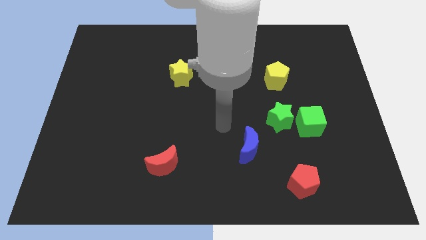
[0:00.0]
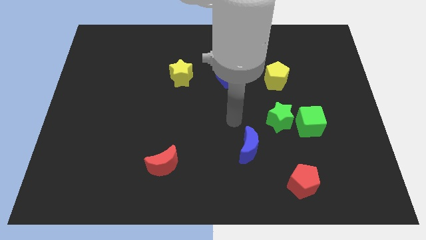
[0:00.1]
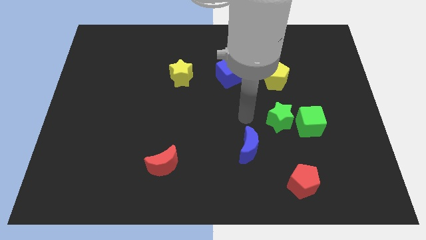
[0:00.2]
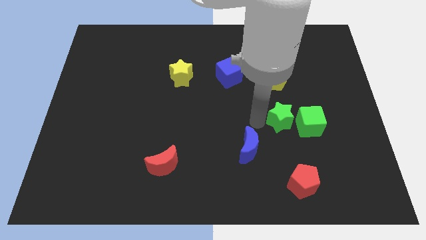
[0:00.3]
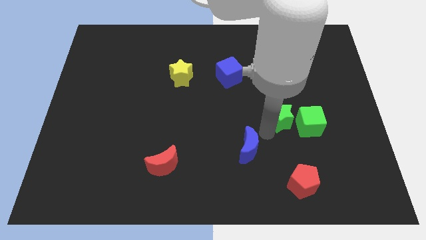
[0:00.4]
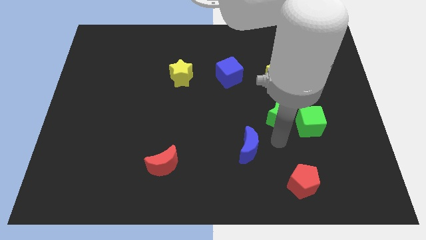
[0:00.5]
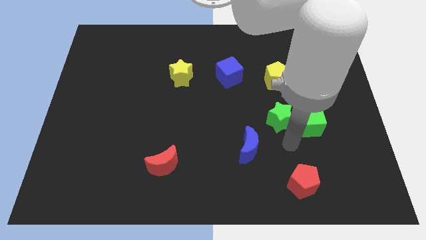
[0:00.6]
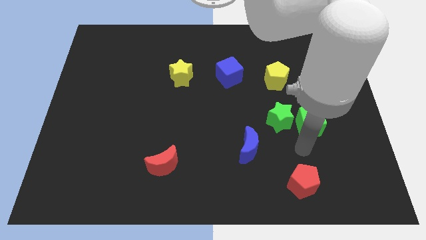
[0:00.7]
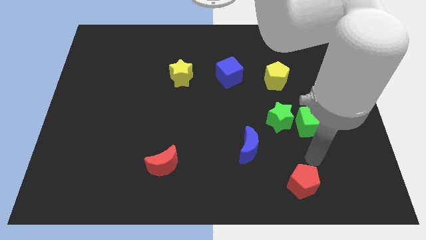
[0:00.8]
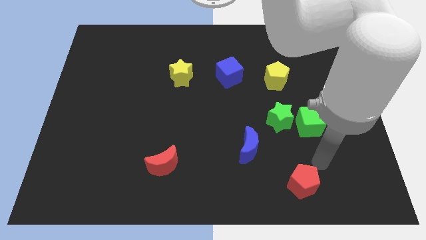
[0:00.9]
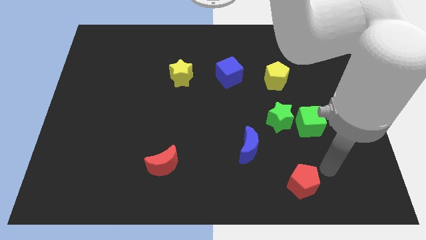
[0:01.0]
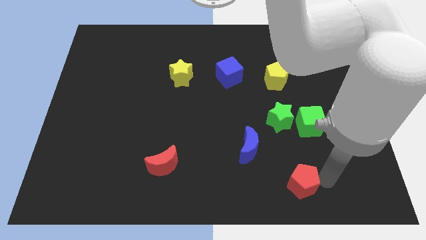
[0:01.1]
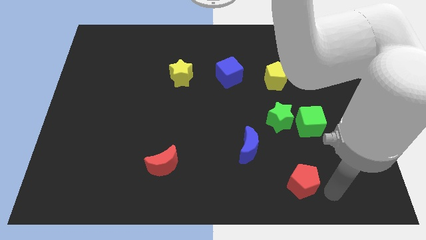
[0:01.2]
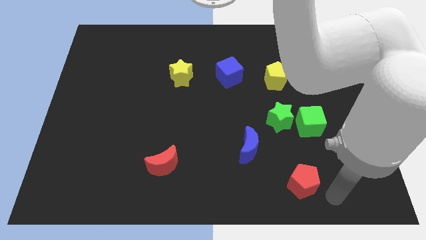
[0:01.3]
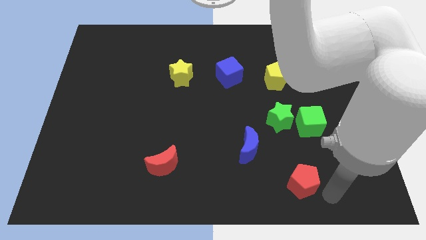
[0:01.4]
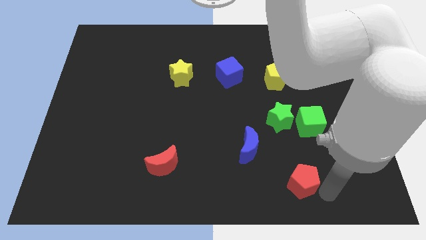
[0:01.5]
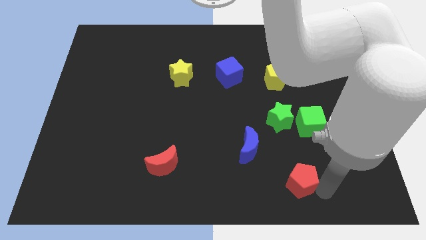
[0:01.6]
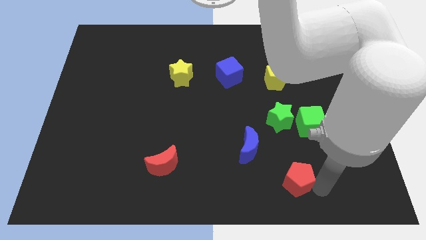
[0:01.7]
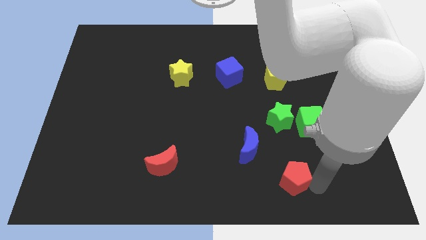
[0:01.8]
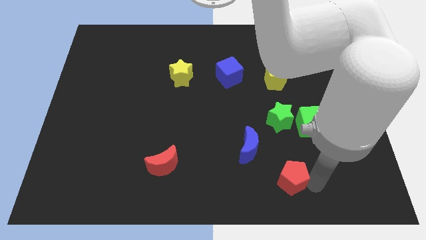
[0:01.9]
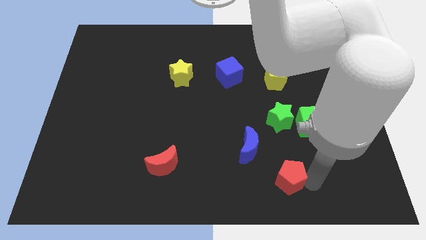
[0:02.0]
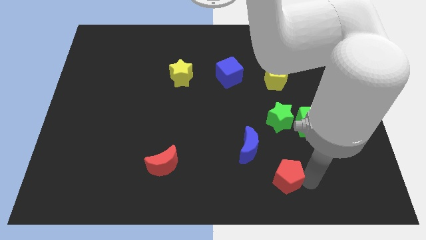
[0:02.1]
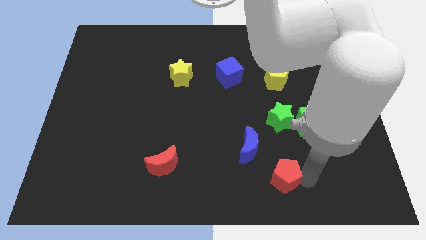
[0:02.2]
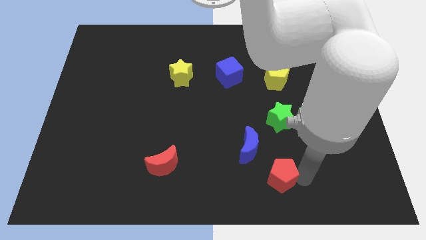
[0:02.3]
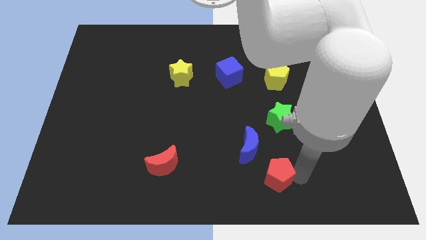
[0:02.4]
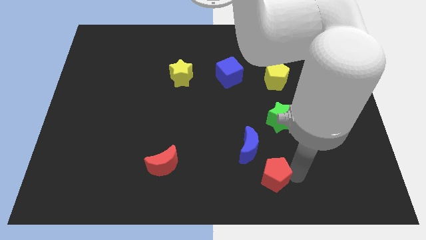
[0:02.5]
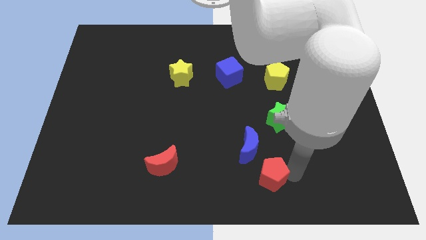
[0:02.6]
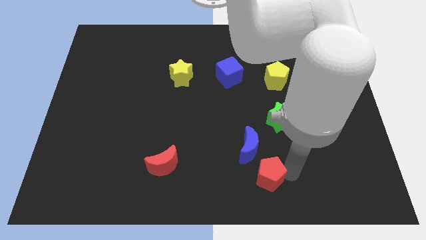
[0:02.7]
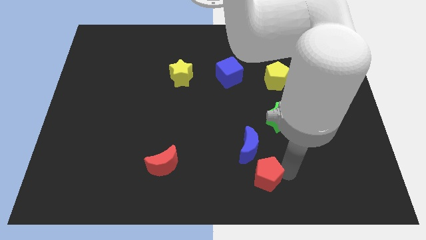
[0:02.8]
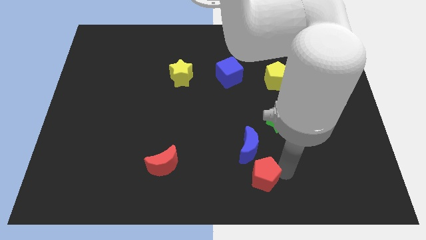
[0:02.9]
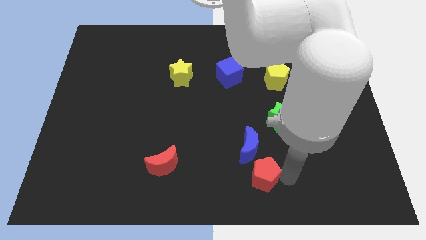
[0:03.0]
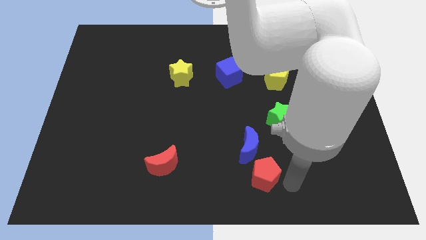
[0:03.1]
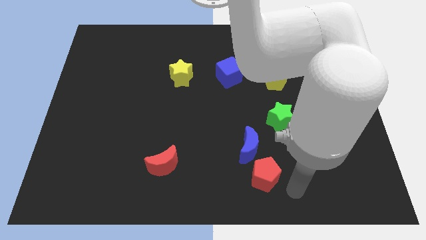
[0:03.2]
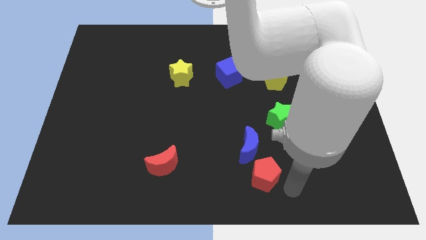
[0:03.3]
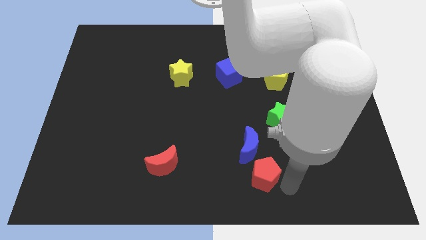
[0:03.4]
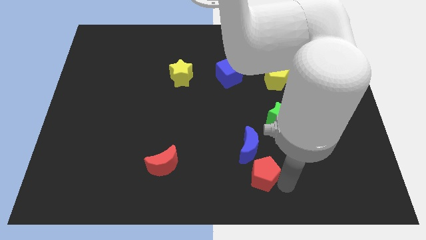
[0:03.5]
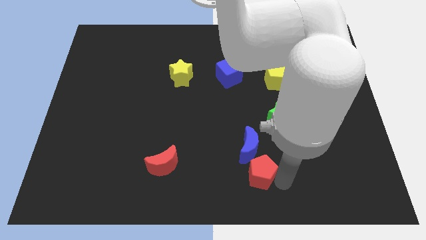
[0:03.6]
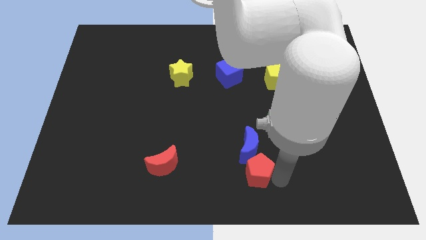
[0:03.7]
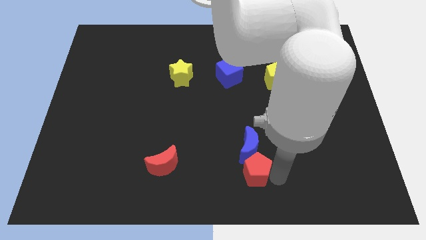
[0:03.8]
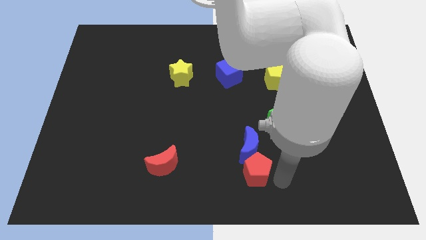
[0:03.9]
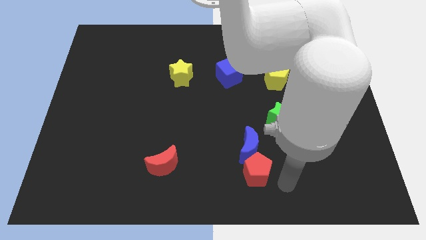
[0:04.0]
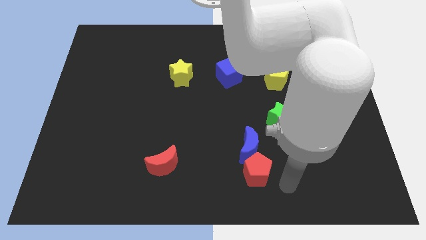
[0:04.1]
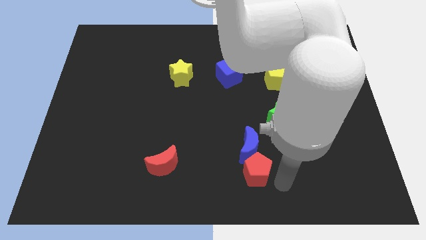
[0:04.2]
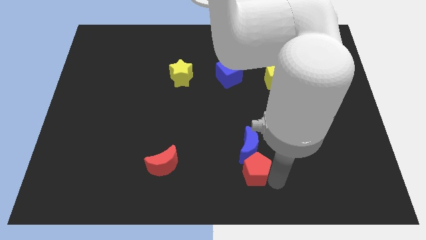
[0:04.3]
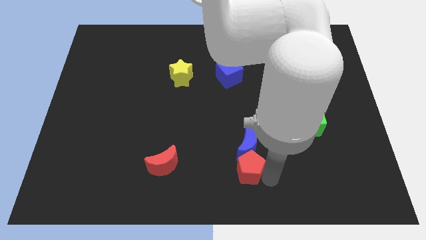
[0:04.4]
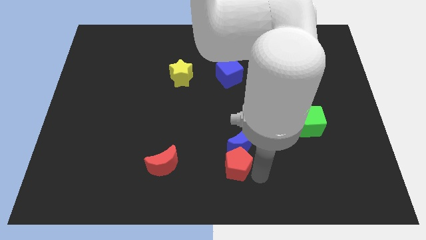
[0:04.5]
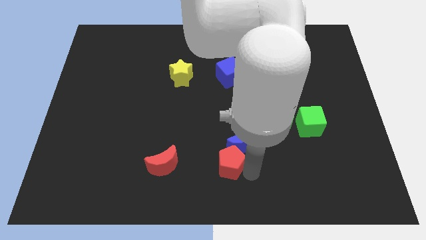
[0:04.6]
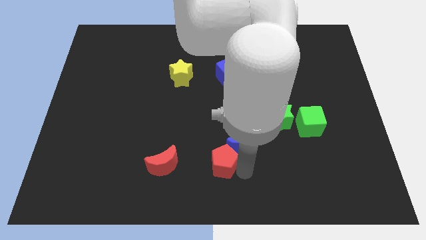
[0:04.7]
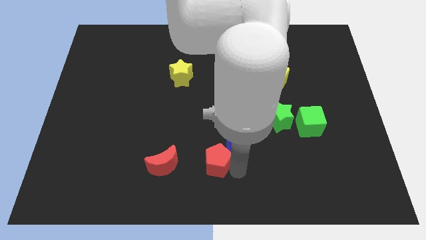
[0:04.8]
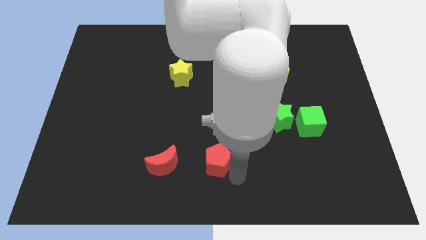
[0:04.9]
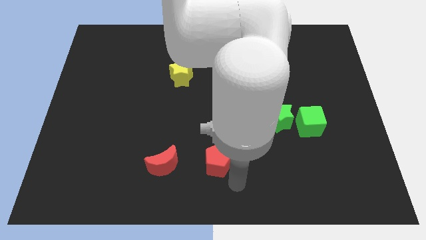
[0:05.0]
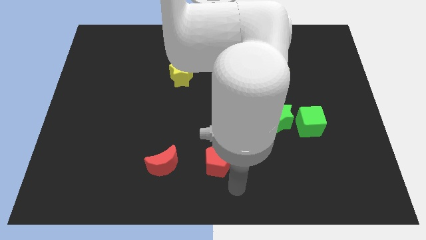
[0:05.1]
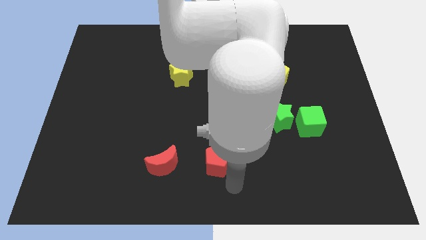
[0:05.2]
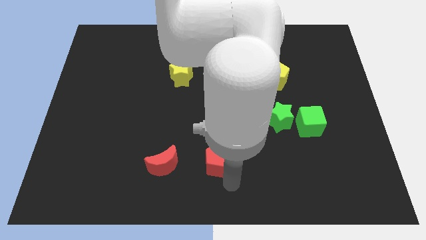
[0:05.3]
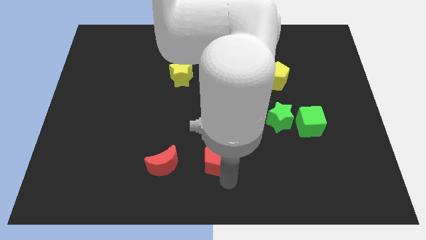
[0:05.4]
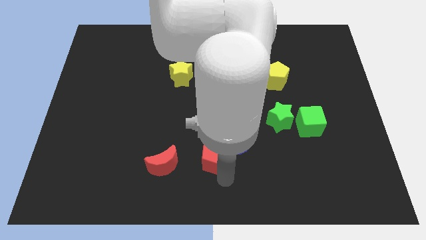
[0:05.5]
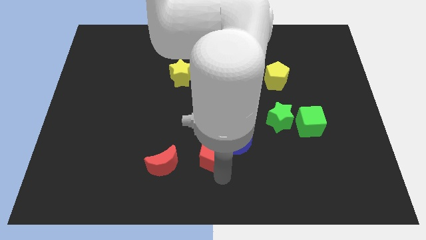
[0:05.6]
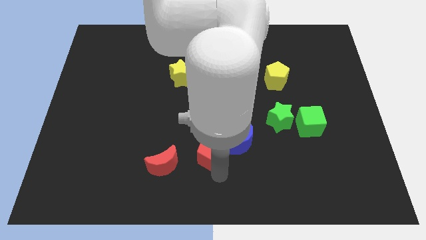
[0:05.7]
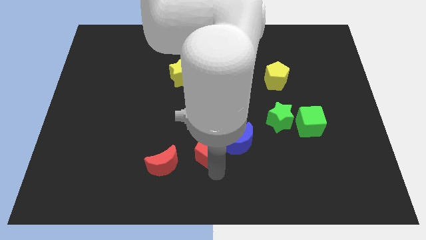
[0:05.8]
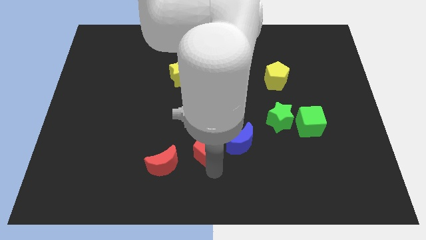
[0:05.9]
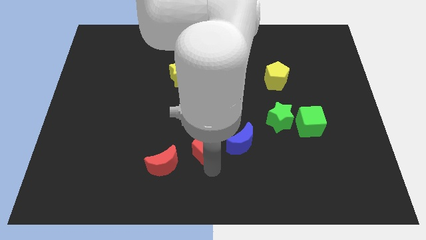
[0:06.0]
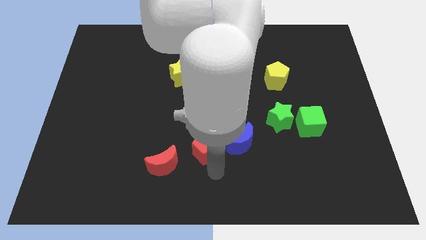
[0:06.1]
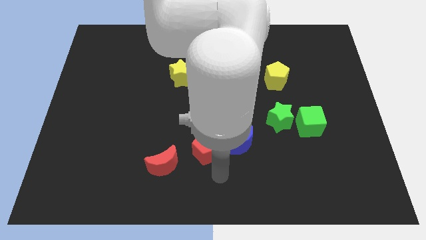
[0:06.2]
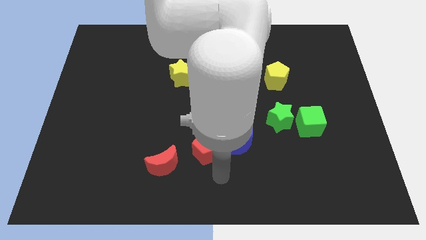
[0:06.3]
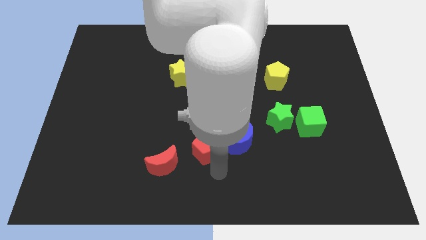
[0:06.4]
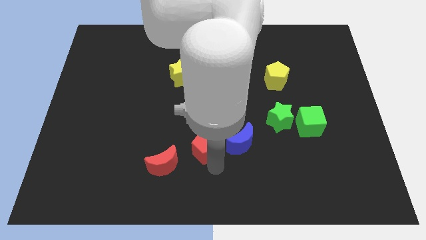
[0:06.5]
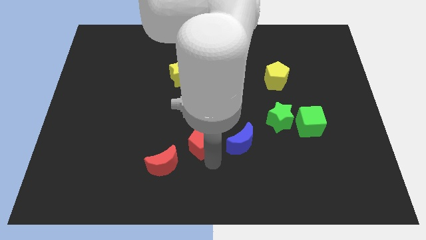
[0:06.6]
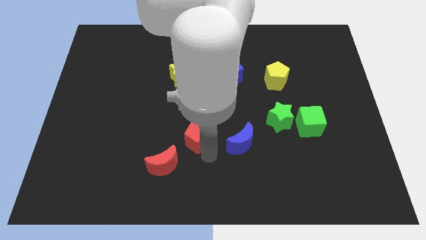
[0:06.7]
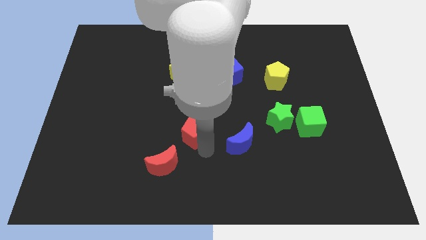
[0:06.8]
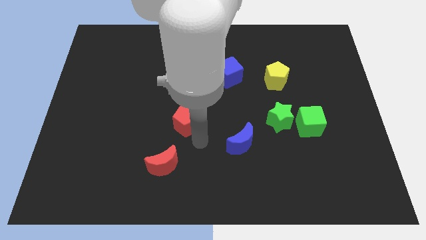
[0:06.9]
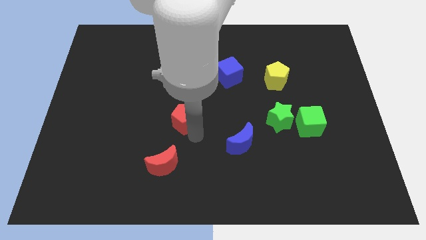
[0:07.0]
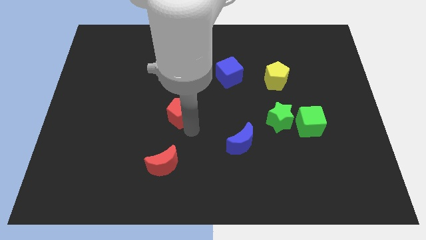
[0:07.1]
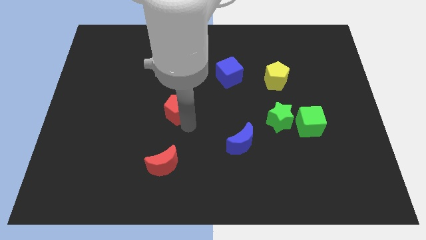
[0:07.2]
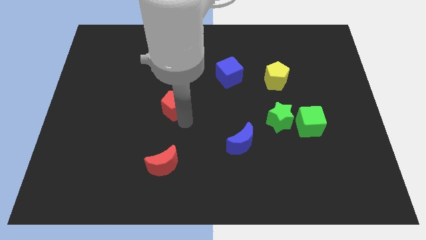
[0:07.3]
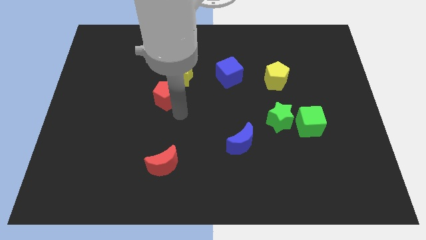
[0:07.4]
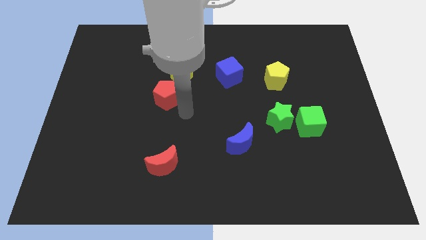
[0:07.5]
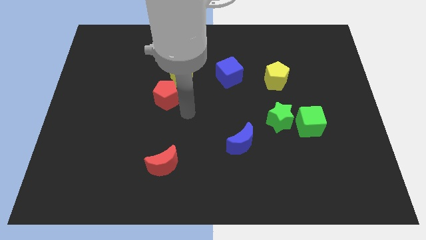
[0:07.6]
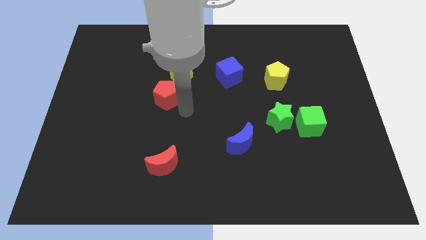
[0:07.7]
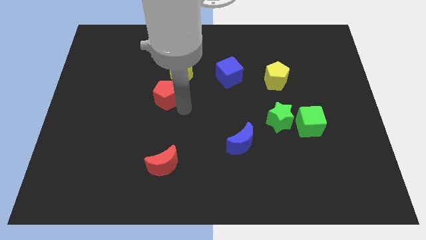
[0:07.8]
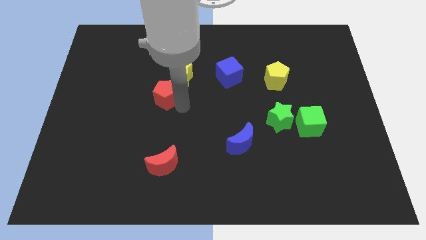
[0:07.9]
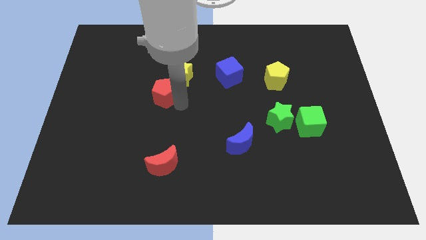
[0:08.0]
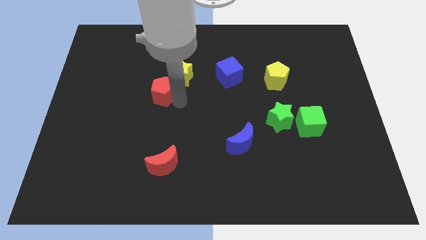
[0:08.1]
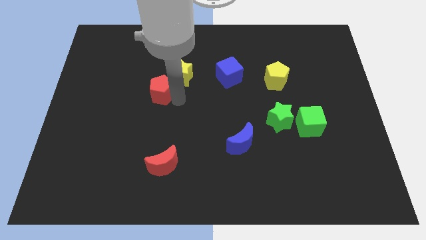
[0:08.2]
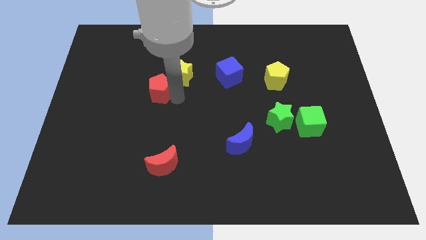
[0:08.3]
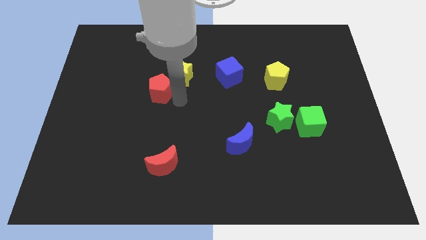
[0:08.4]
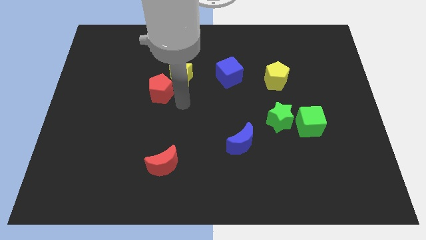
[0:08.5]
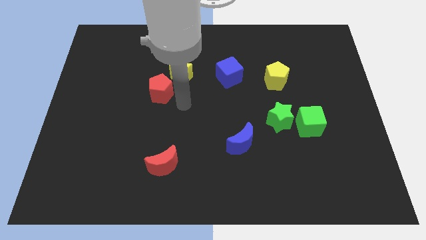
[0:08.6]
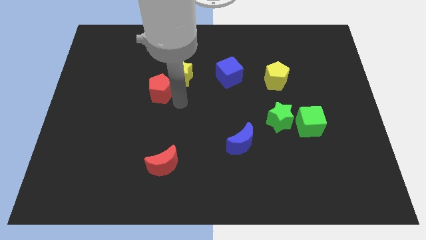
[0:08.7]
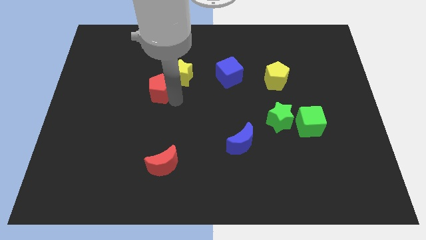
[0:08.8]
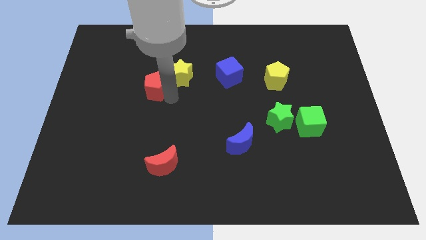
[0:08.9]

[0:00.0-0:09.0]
push the red pentagon to the left of the yellow star
